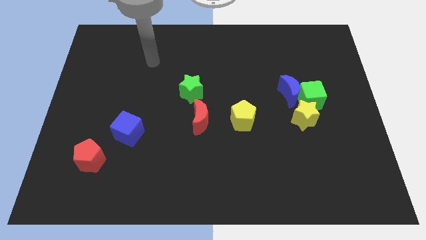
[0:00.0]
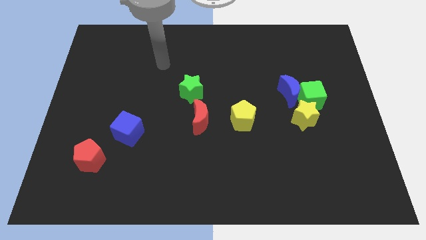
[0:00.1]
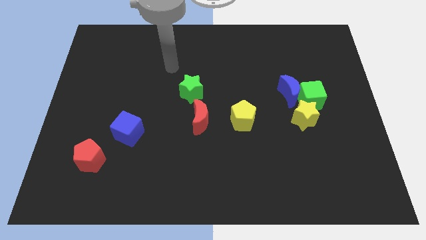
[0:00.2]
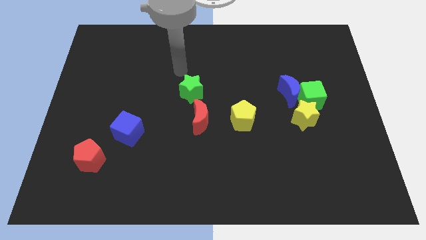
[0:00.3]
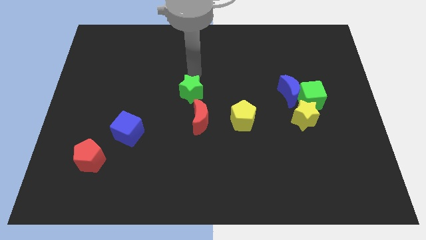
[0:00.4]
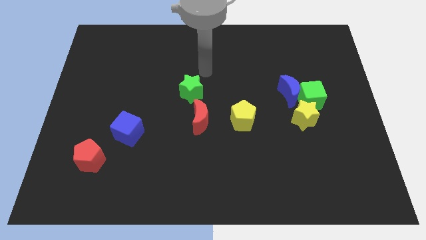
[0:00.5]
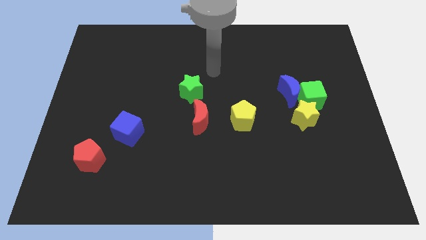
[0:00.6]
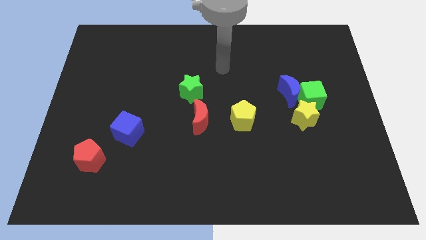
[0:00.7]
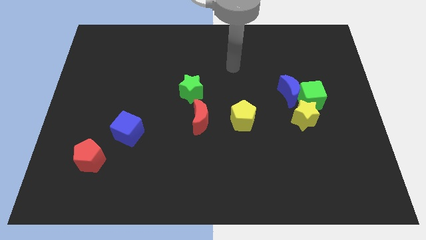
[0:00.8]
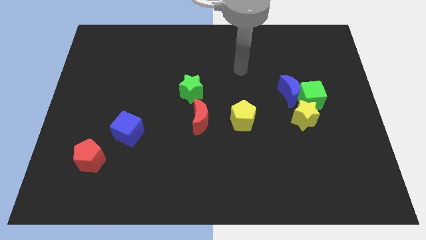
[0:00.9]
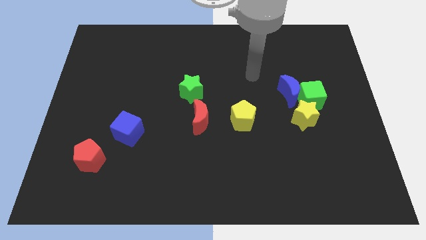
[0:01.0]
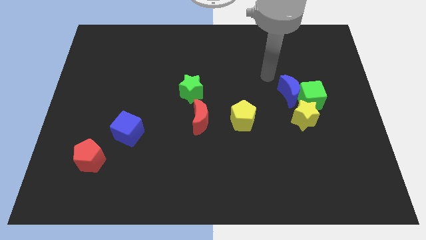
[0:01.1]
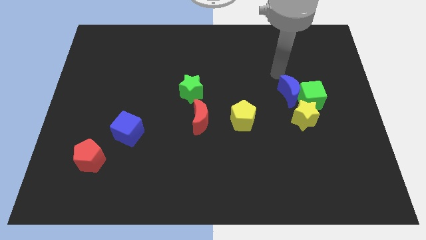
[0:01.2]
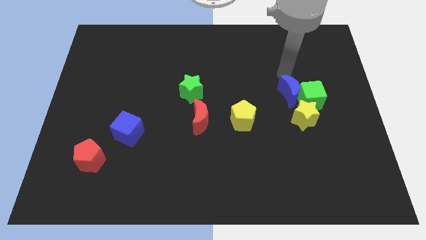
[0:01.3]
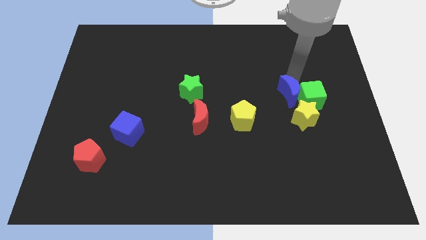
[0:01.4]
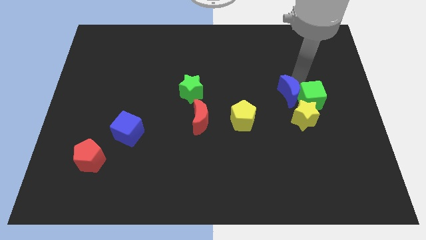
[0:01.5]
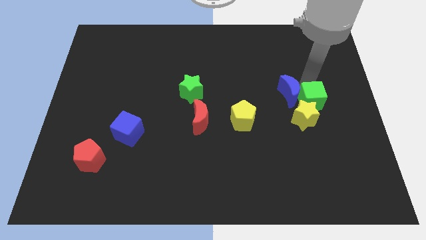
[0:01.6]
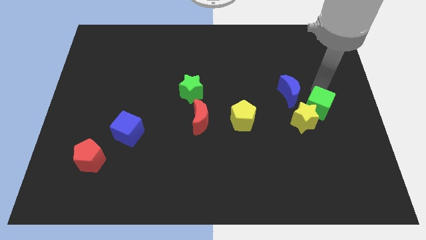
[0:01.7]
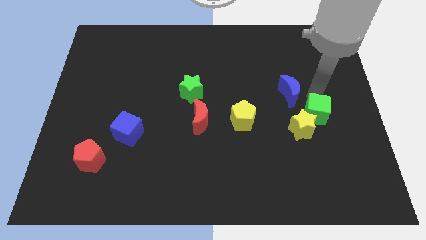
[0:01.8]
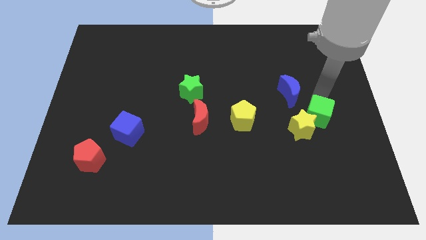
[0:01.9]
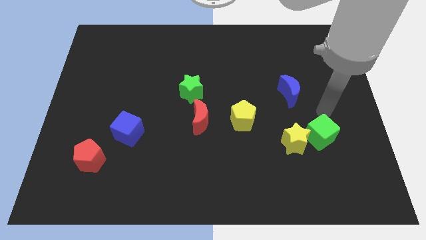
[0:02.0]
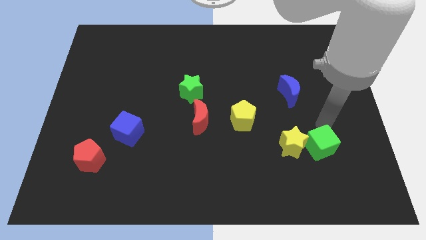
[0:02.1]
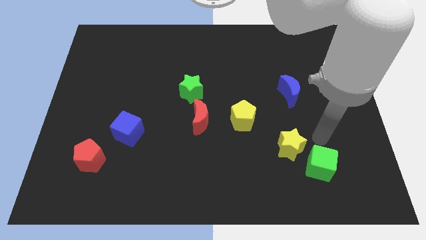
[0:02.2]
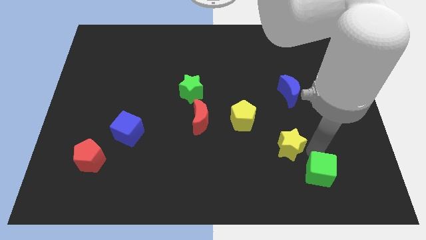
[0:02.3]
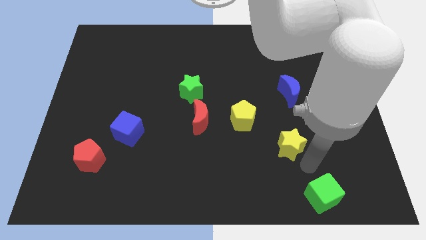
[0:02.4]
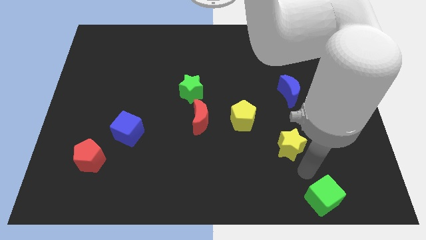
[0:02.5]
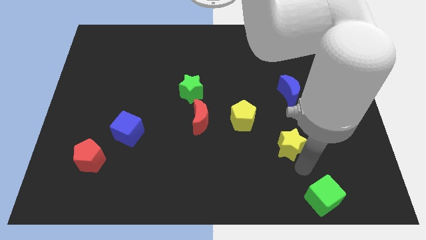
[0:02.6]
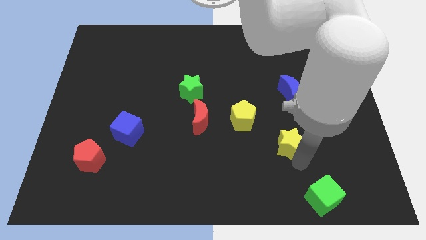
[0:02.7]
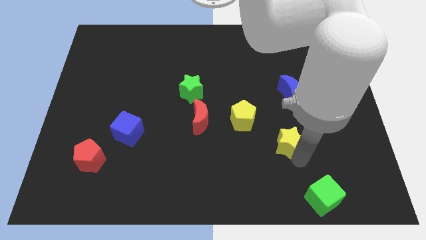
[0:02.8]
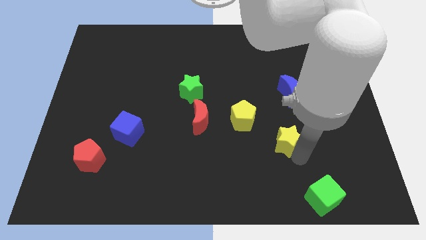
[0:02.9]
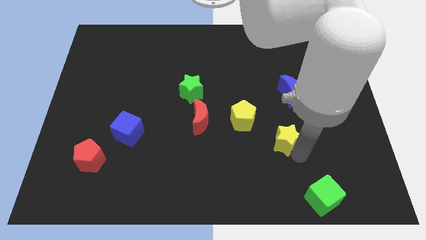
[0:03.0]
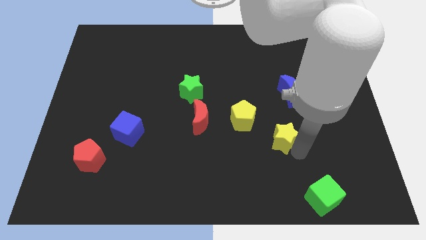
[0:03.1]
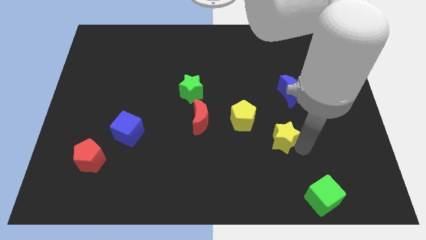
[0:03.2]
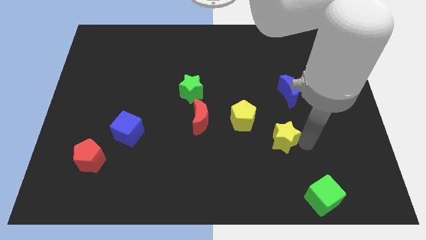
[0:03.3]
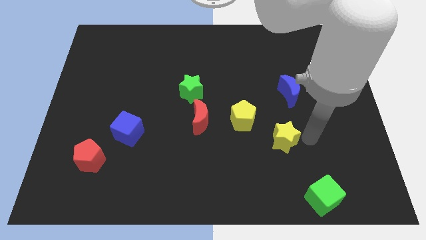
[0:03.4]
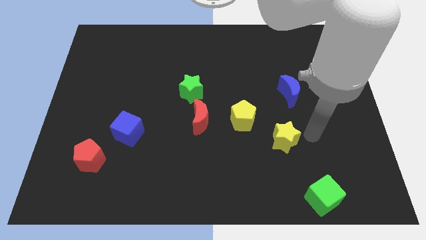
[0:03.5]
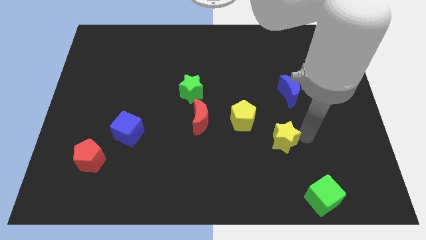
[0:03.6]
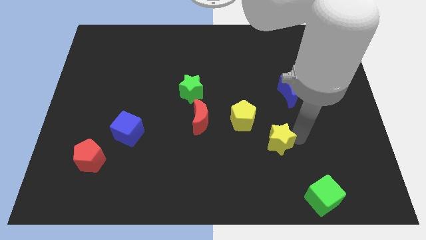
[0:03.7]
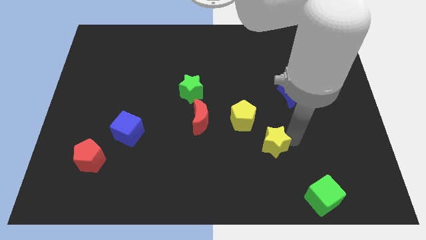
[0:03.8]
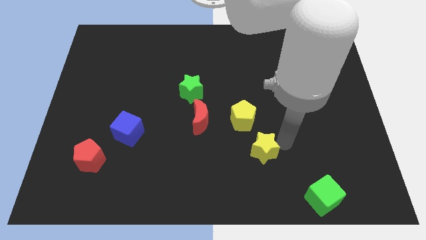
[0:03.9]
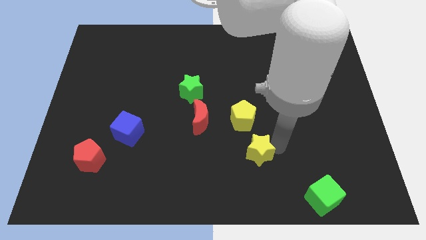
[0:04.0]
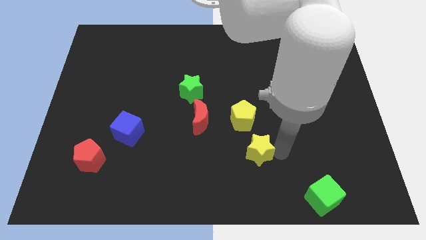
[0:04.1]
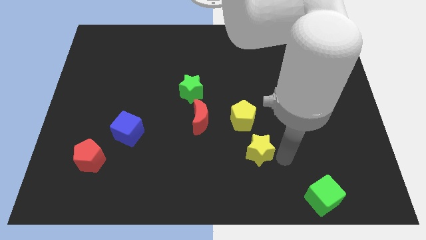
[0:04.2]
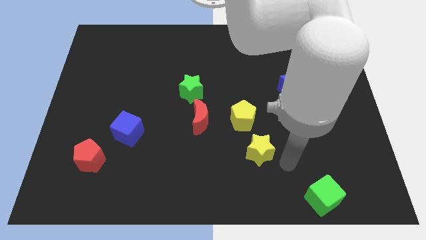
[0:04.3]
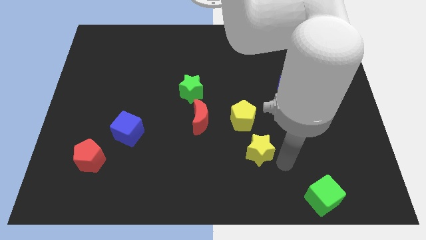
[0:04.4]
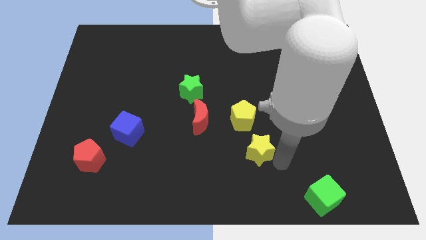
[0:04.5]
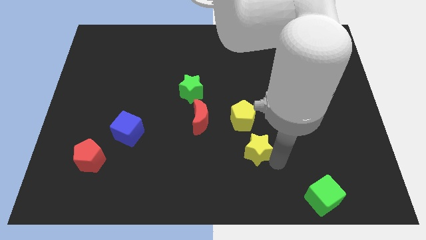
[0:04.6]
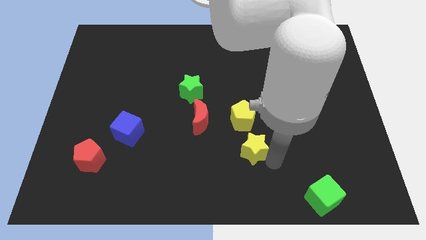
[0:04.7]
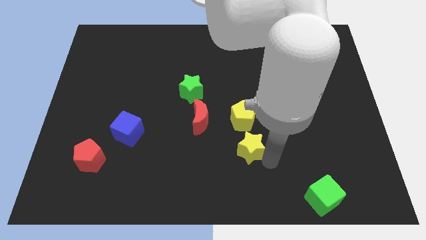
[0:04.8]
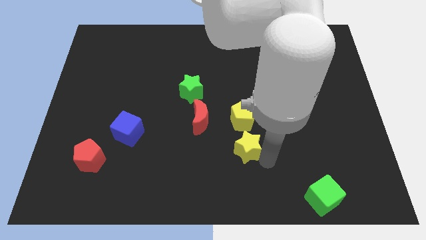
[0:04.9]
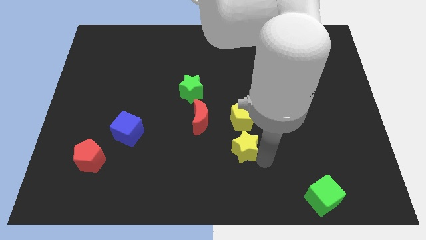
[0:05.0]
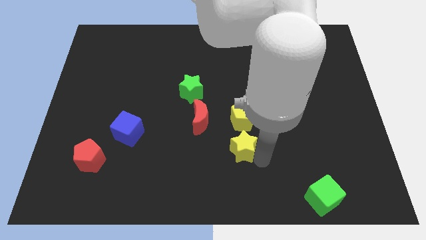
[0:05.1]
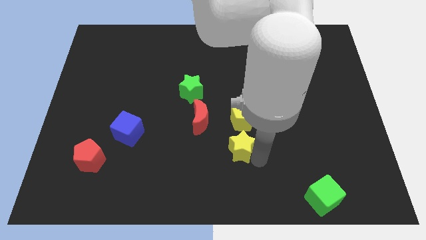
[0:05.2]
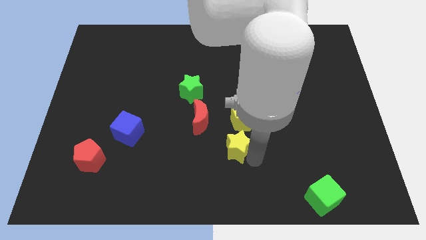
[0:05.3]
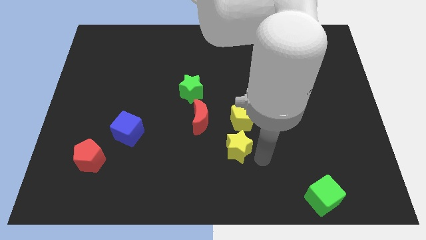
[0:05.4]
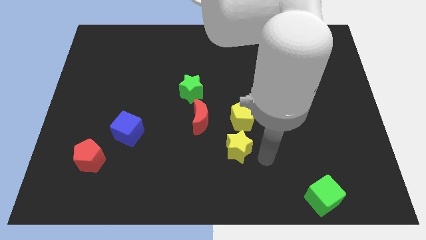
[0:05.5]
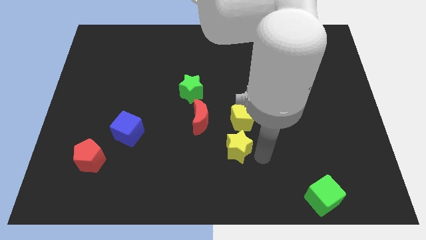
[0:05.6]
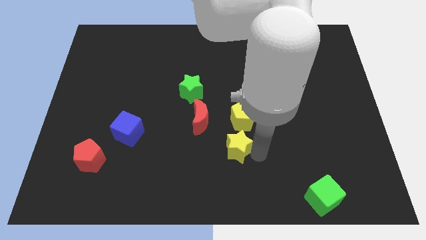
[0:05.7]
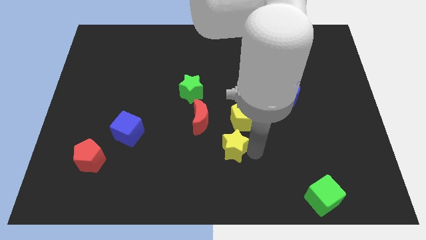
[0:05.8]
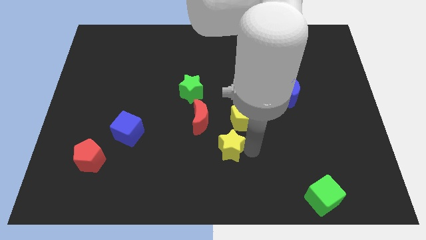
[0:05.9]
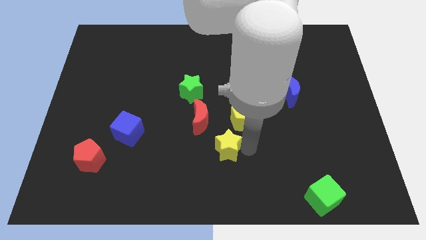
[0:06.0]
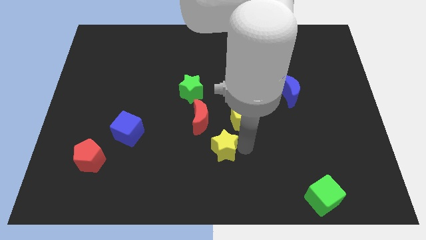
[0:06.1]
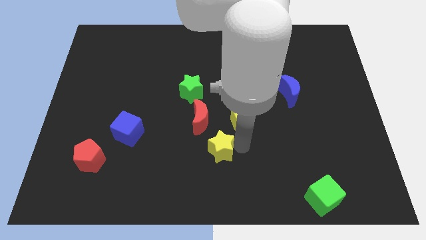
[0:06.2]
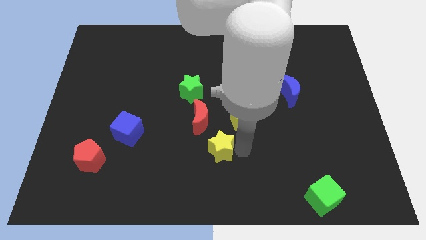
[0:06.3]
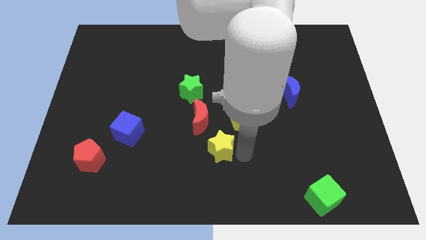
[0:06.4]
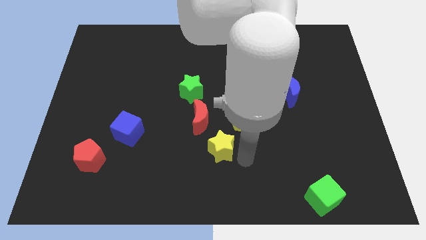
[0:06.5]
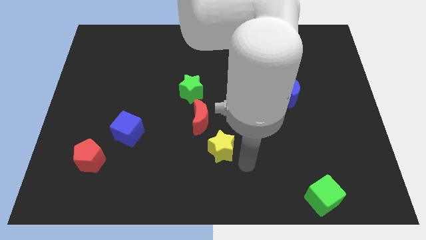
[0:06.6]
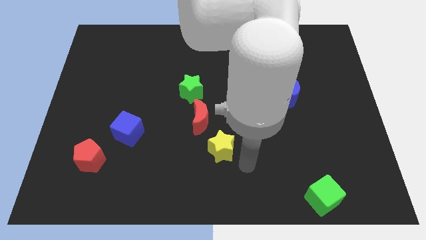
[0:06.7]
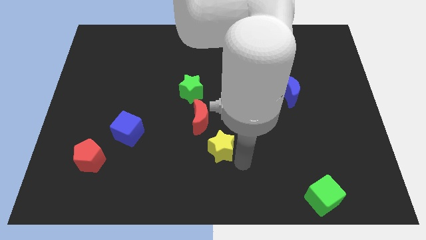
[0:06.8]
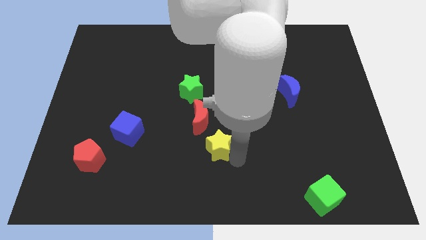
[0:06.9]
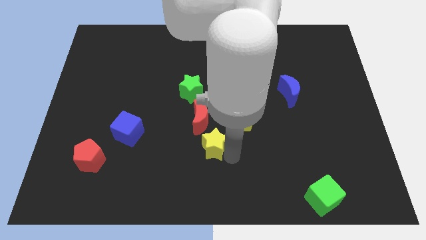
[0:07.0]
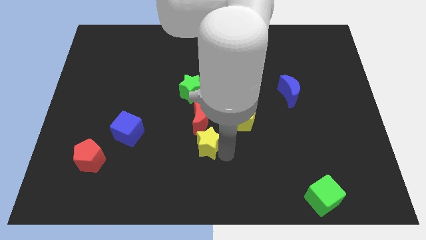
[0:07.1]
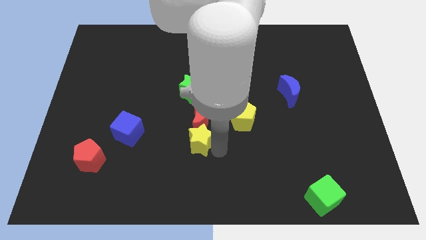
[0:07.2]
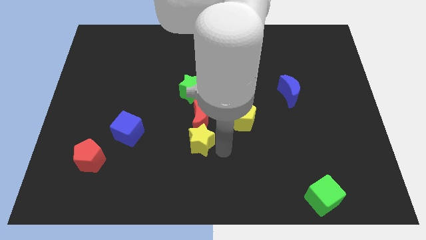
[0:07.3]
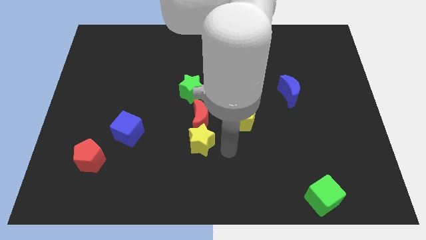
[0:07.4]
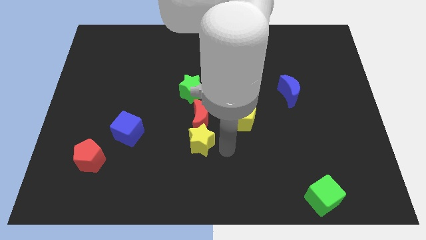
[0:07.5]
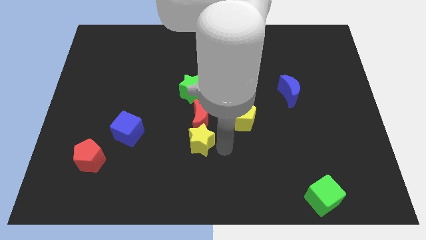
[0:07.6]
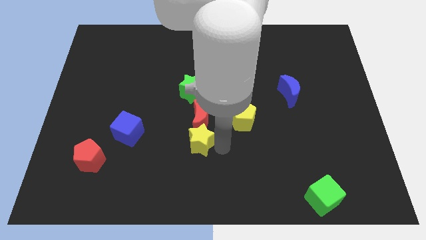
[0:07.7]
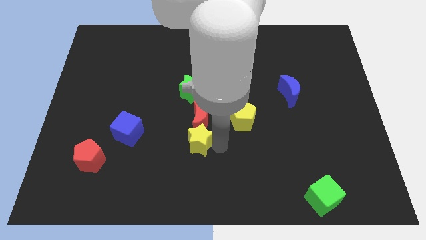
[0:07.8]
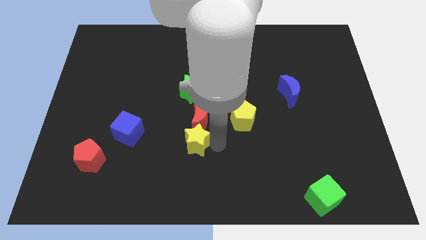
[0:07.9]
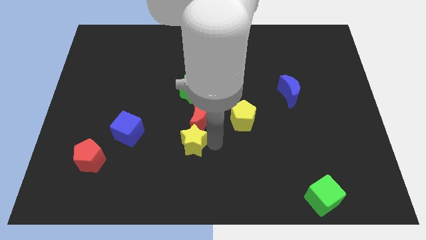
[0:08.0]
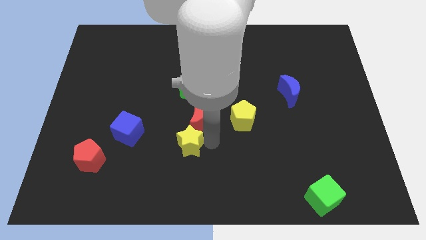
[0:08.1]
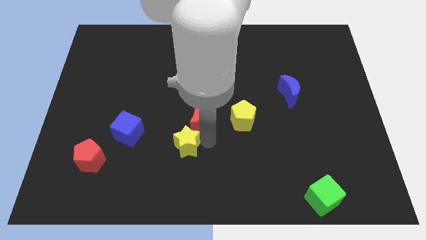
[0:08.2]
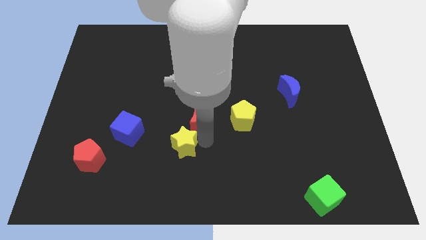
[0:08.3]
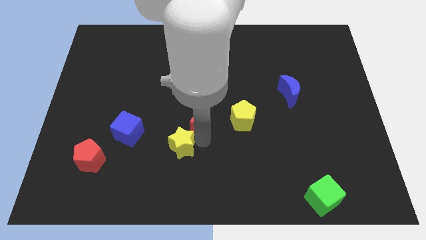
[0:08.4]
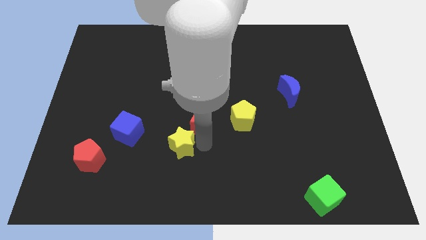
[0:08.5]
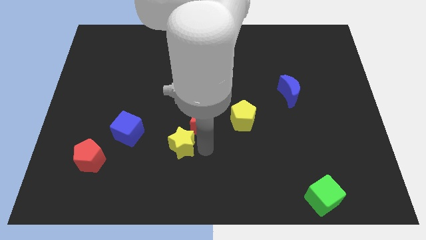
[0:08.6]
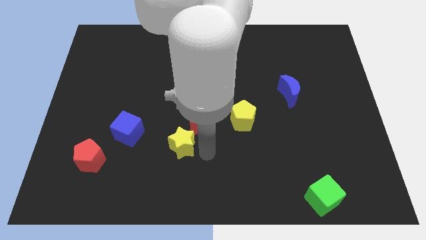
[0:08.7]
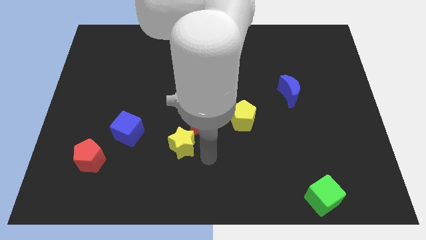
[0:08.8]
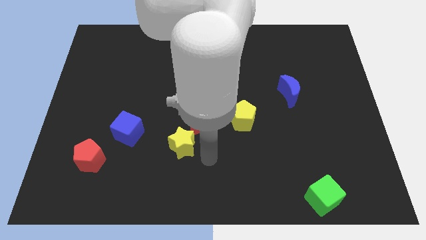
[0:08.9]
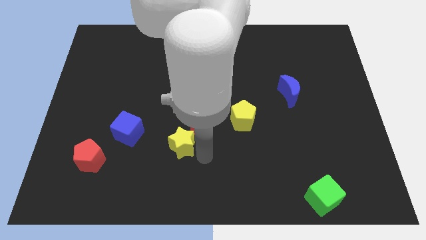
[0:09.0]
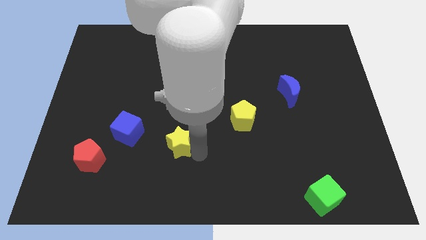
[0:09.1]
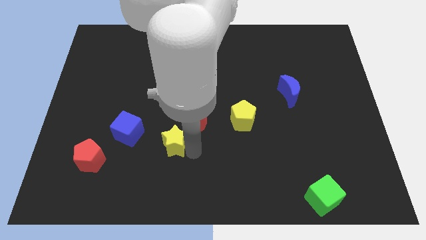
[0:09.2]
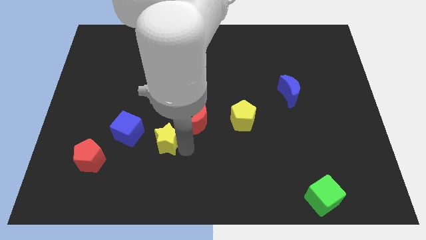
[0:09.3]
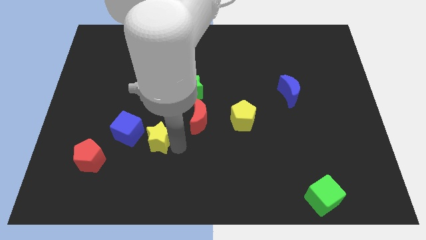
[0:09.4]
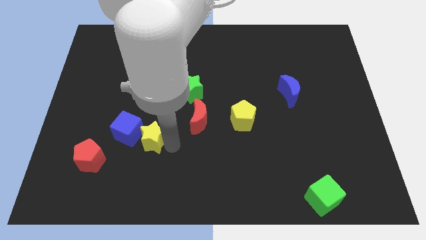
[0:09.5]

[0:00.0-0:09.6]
slide the yellow star towards the blue cube
